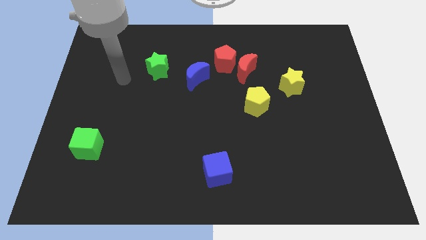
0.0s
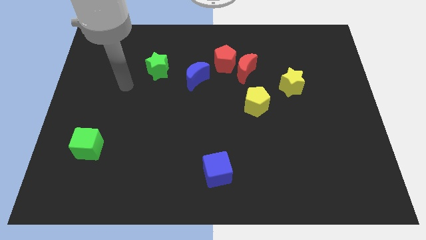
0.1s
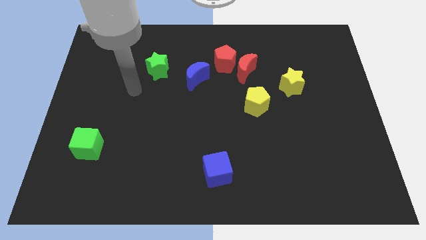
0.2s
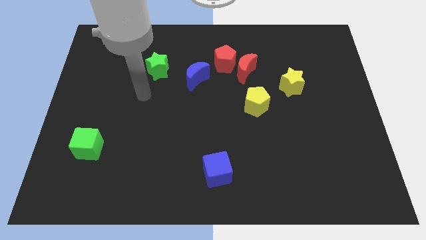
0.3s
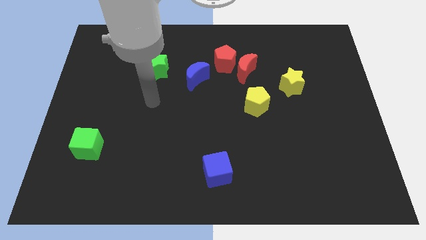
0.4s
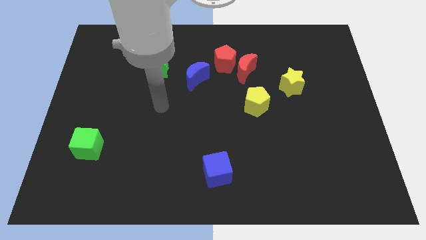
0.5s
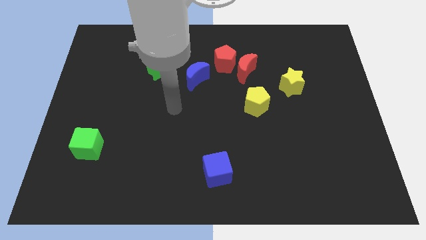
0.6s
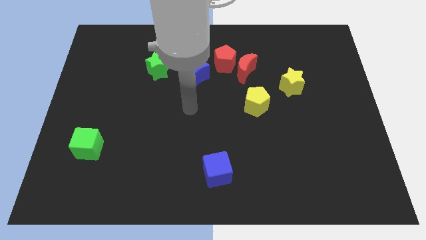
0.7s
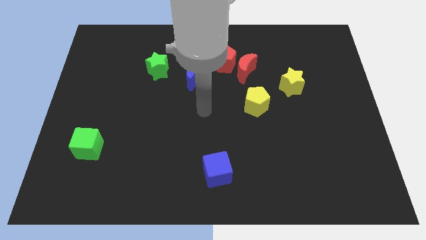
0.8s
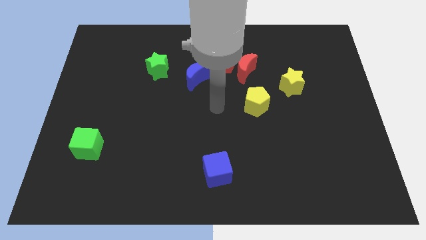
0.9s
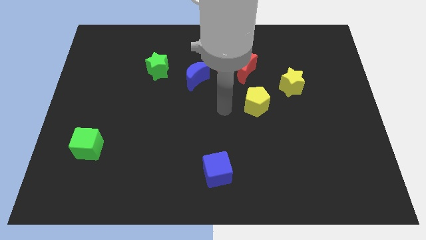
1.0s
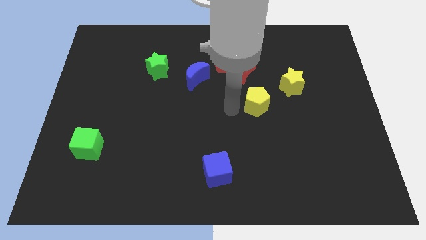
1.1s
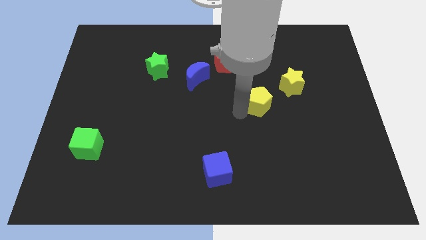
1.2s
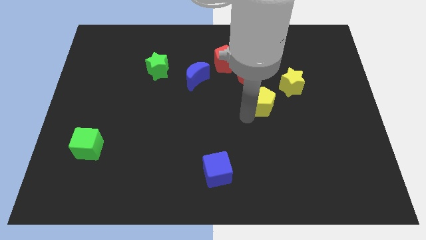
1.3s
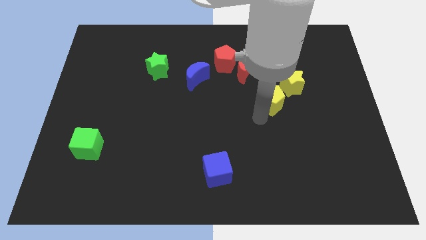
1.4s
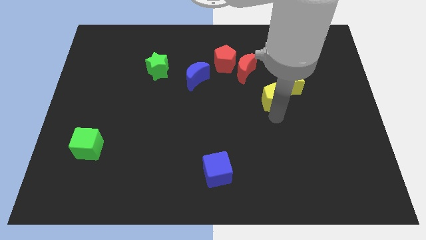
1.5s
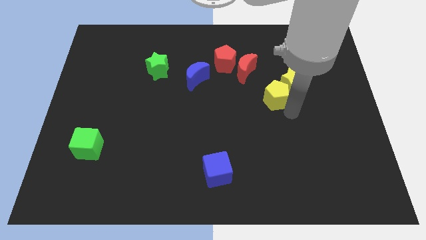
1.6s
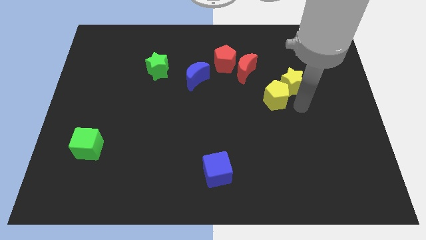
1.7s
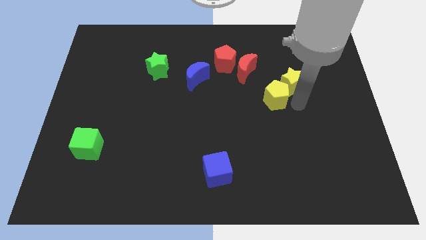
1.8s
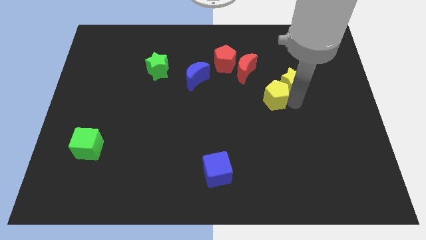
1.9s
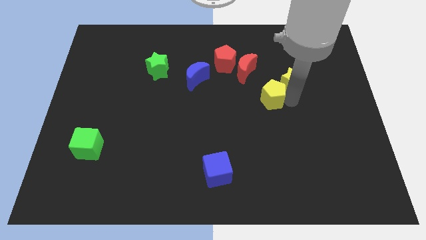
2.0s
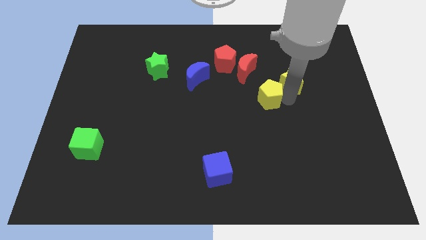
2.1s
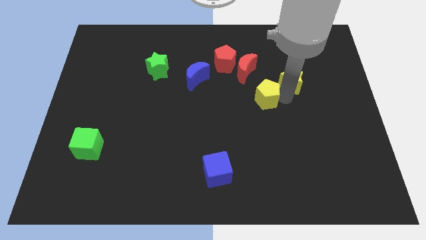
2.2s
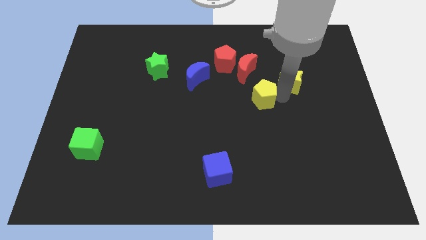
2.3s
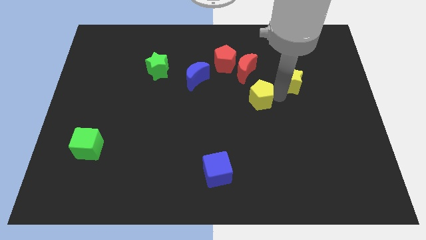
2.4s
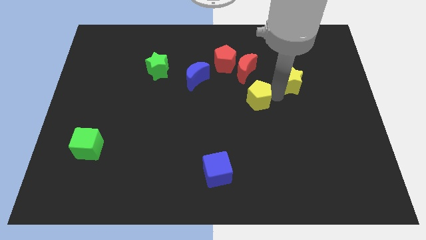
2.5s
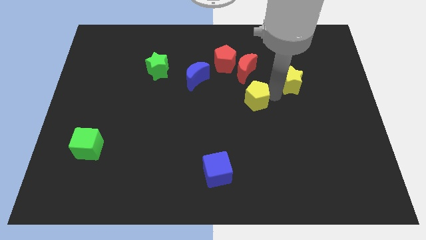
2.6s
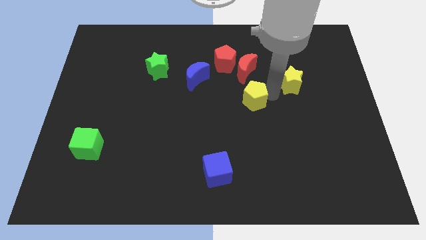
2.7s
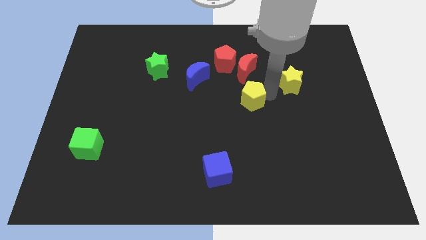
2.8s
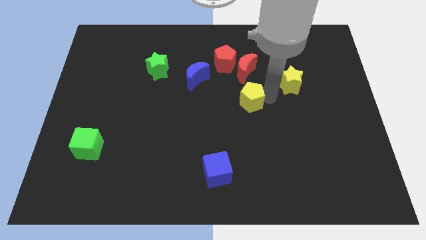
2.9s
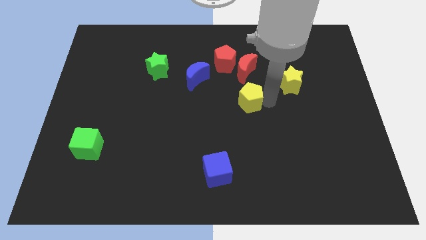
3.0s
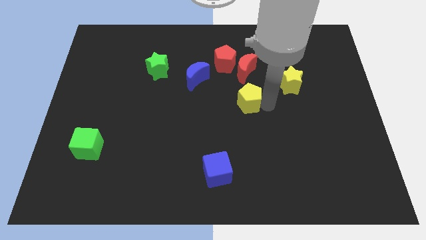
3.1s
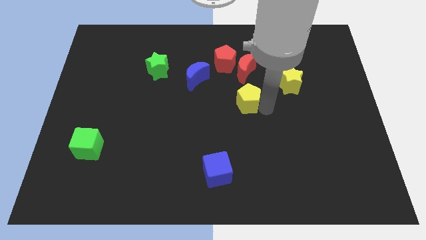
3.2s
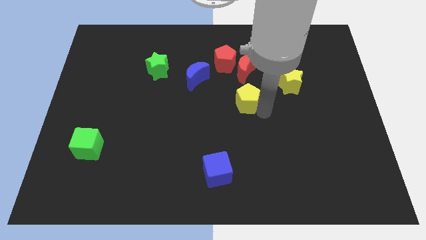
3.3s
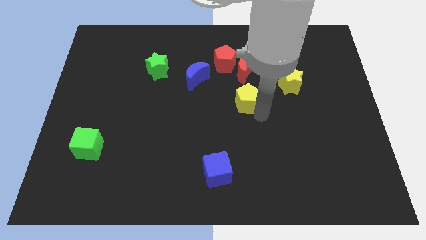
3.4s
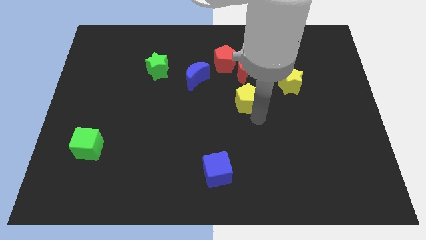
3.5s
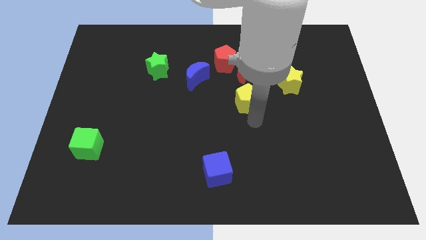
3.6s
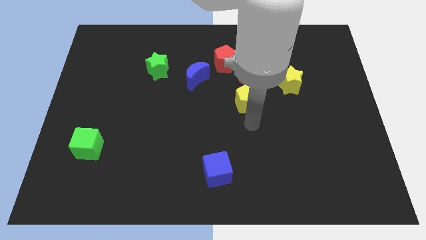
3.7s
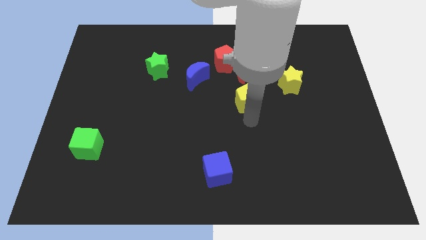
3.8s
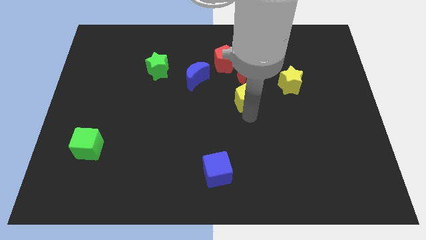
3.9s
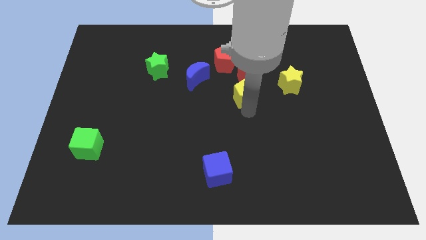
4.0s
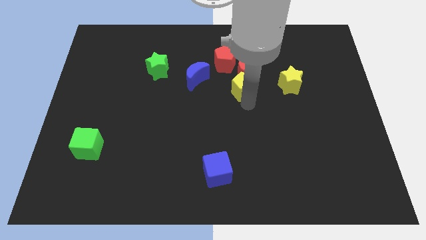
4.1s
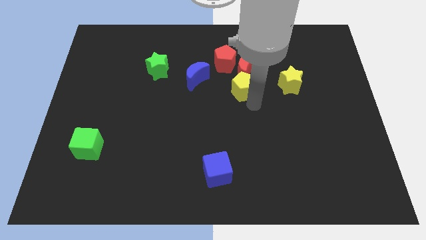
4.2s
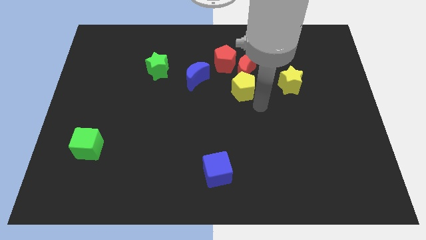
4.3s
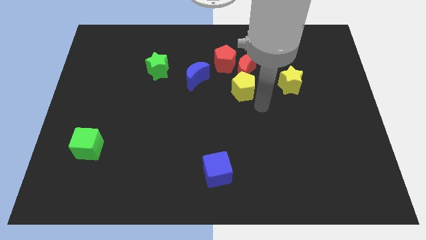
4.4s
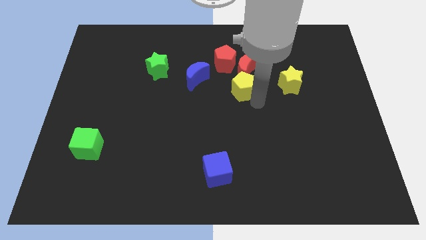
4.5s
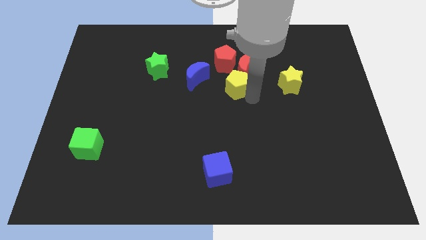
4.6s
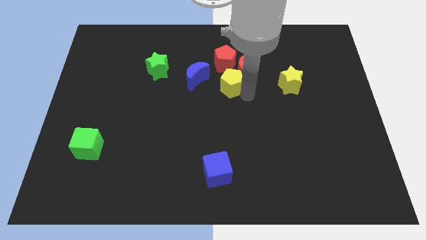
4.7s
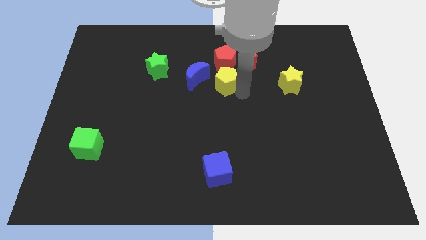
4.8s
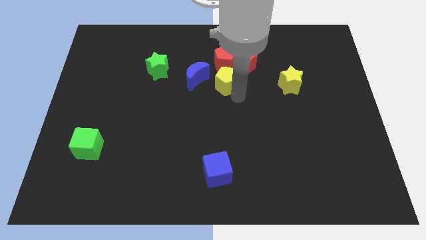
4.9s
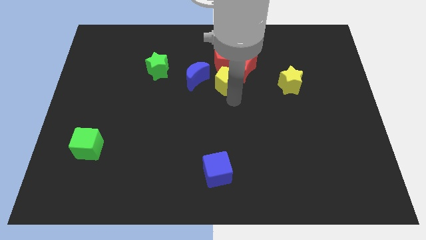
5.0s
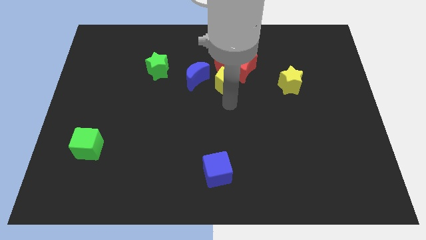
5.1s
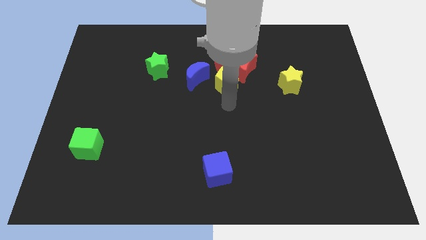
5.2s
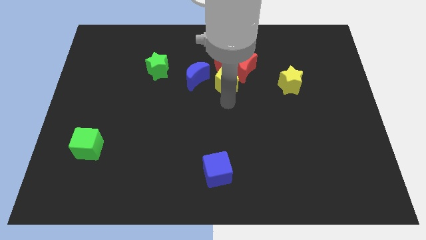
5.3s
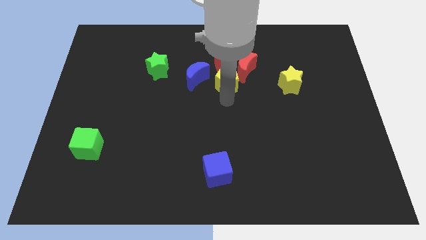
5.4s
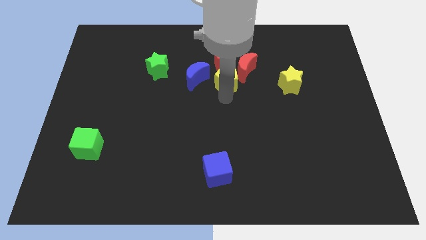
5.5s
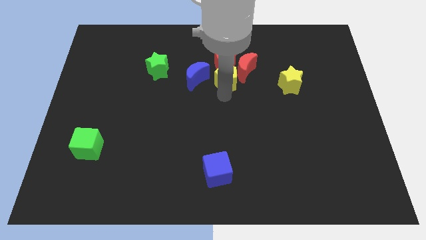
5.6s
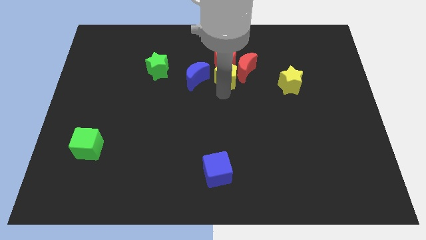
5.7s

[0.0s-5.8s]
push the yellow pentagon to the red pentagon

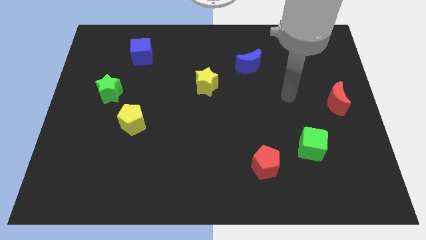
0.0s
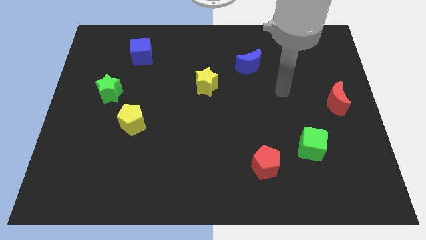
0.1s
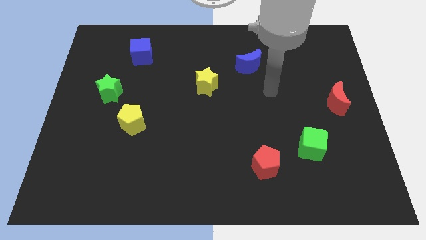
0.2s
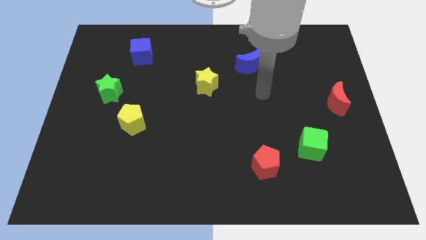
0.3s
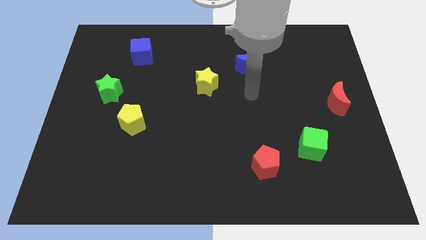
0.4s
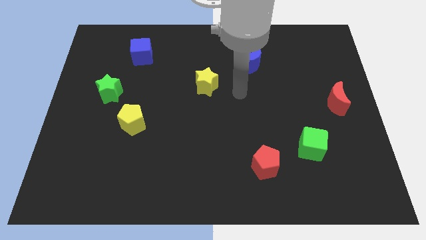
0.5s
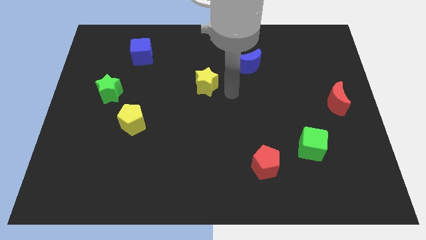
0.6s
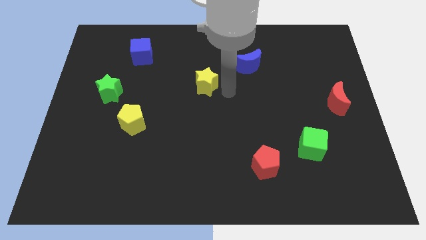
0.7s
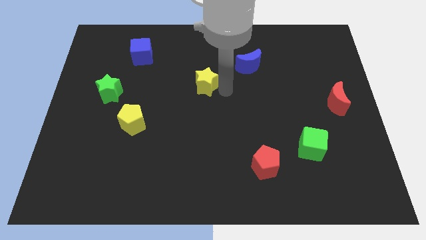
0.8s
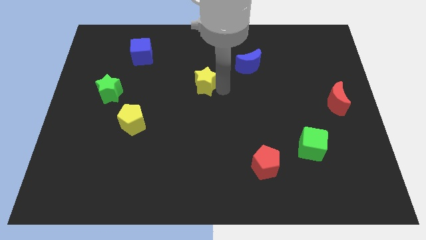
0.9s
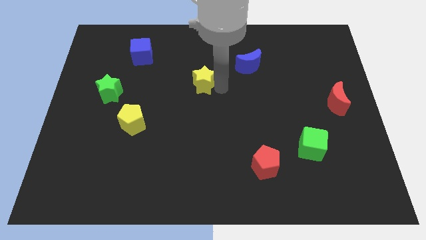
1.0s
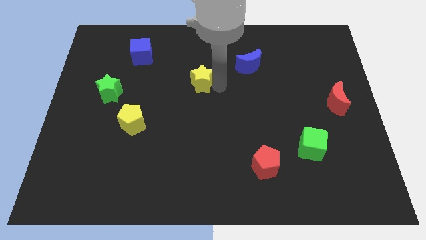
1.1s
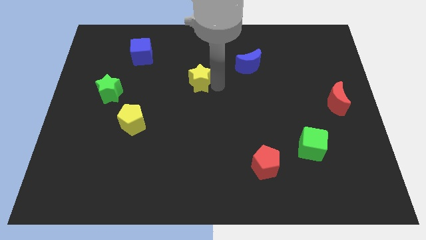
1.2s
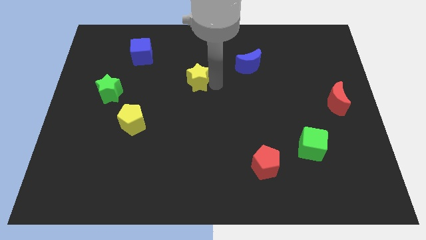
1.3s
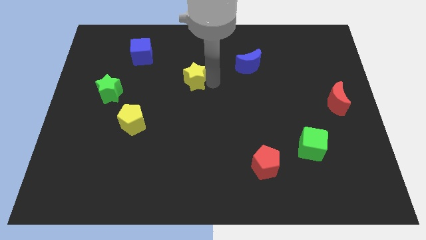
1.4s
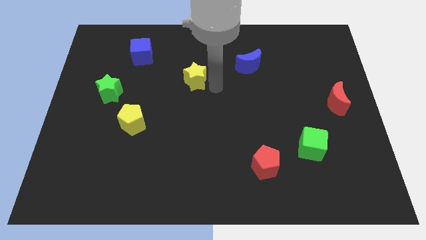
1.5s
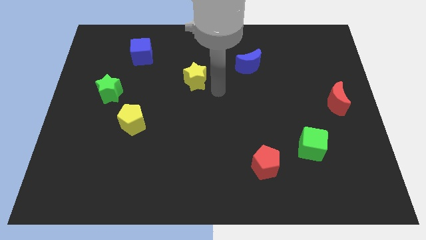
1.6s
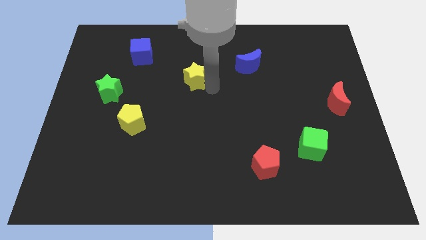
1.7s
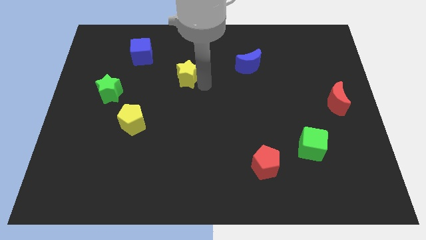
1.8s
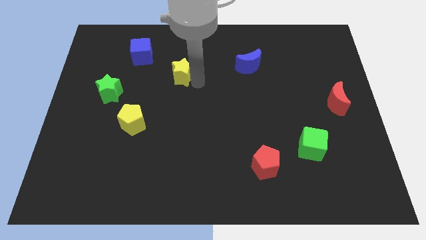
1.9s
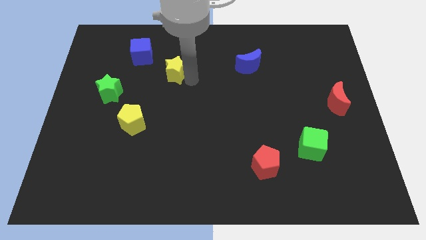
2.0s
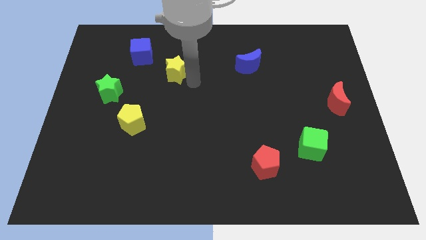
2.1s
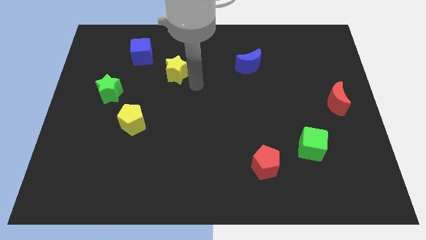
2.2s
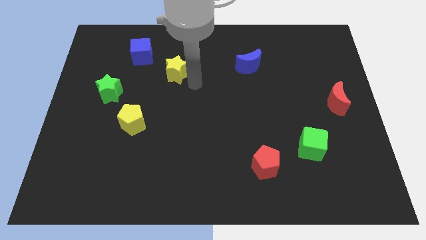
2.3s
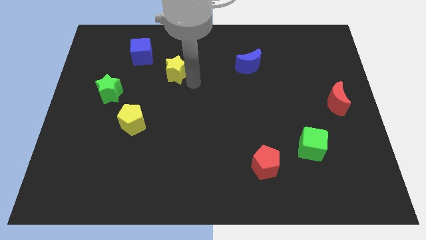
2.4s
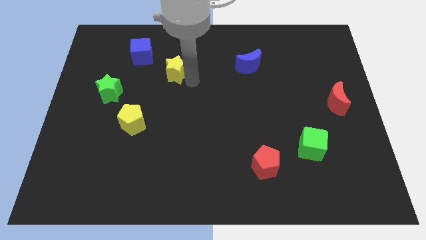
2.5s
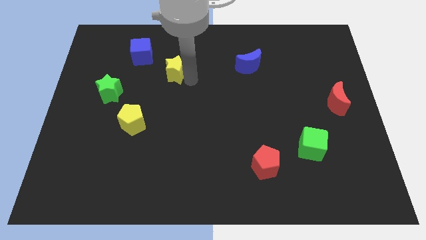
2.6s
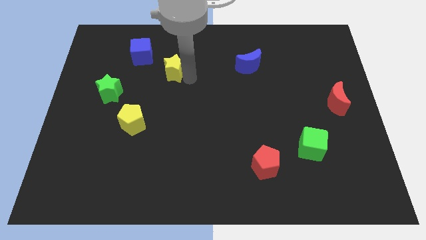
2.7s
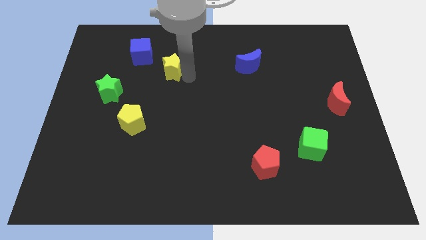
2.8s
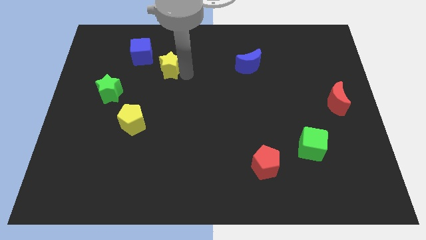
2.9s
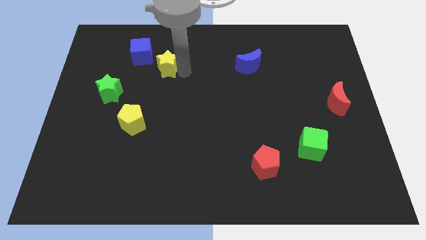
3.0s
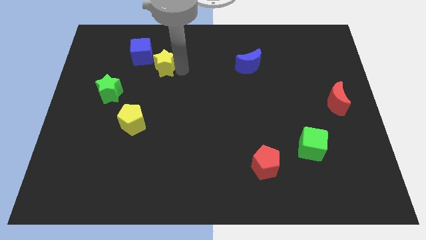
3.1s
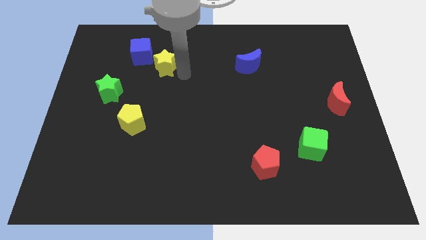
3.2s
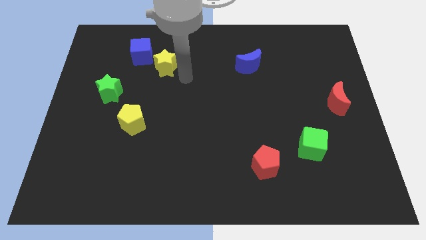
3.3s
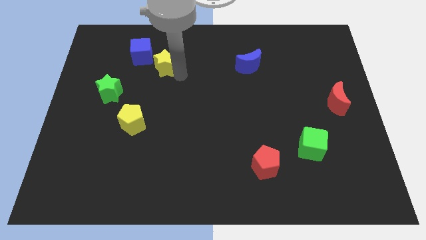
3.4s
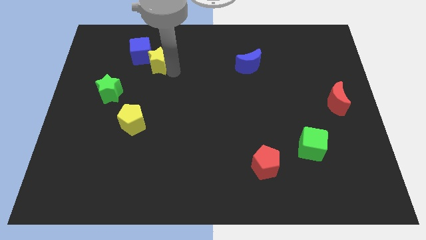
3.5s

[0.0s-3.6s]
push the yellow star close to the blue cube
